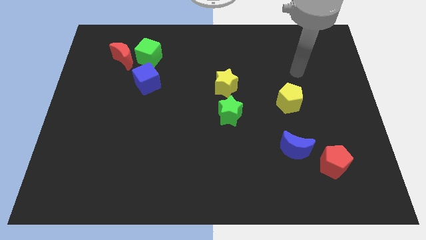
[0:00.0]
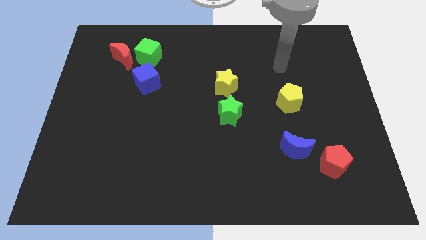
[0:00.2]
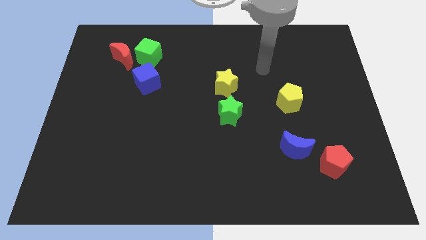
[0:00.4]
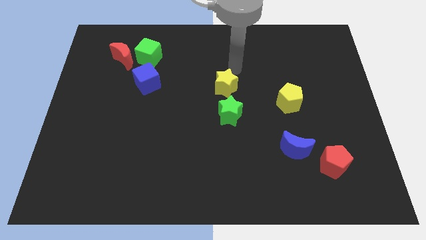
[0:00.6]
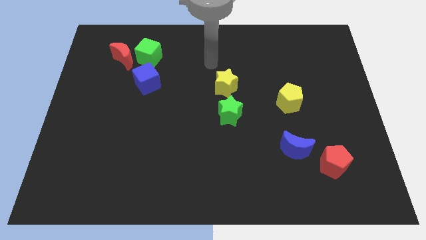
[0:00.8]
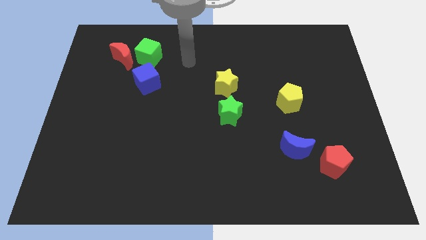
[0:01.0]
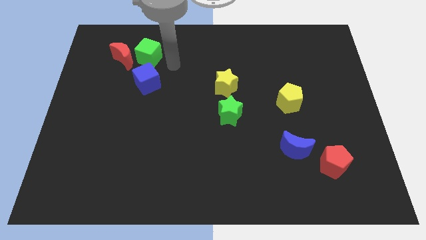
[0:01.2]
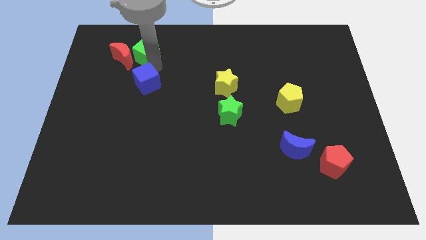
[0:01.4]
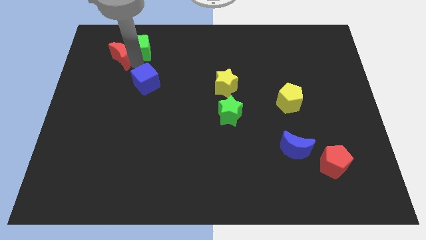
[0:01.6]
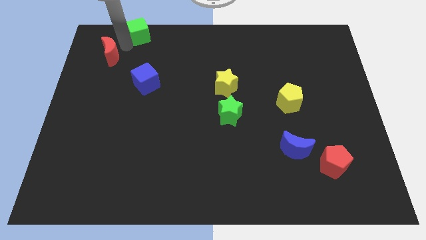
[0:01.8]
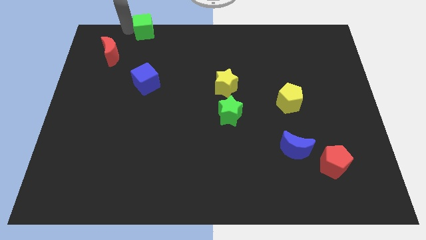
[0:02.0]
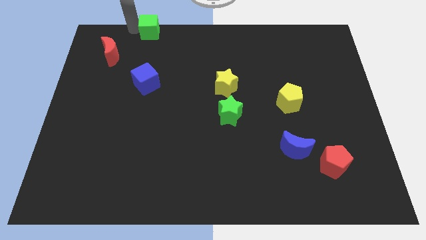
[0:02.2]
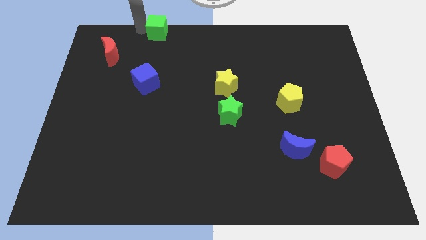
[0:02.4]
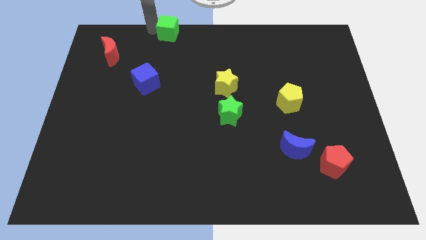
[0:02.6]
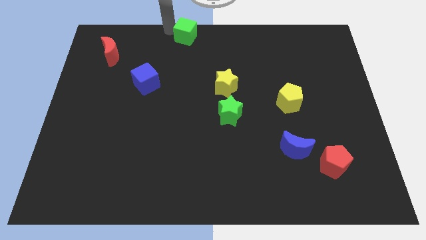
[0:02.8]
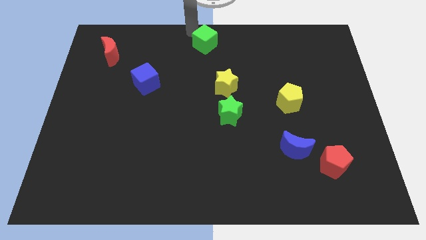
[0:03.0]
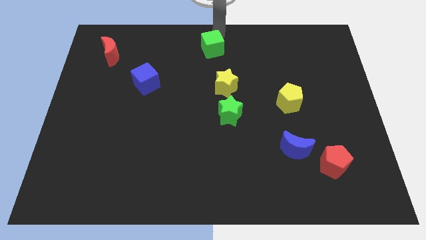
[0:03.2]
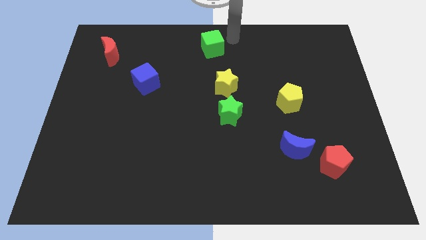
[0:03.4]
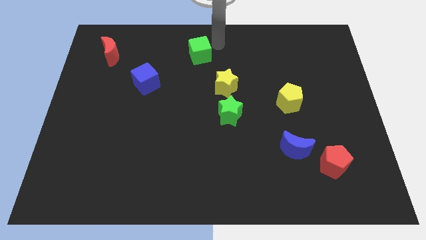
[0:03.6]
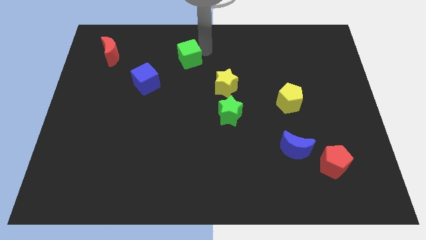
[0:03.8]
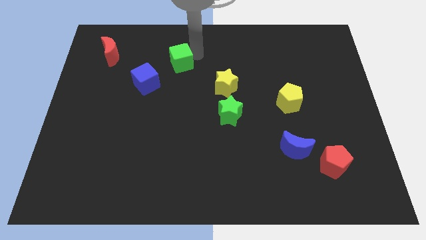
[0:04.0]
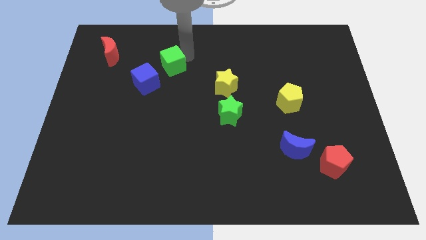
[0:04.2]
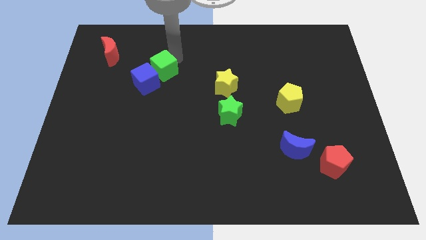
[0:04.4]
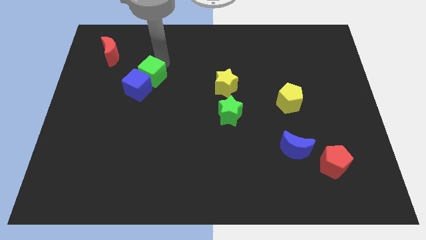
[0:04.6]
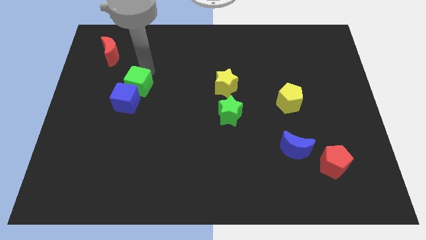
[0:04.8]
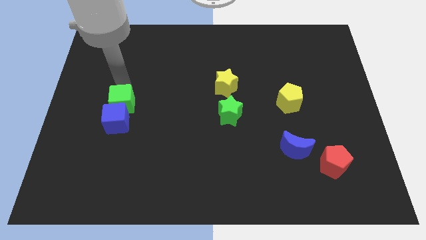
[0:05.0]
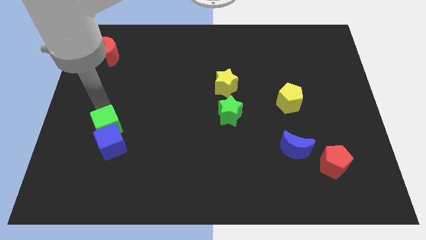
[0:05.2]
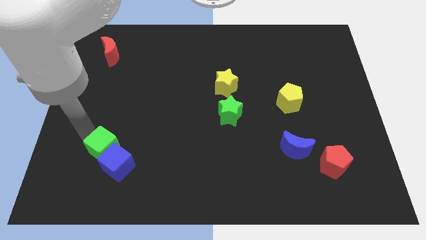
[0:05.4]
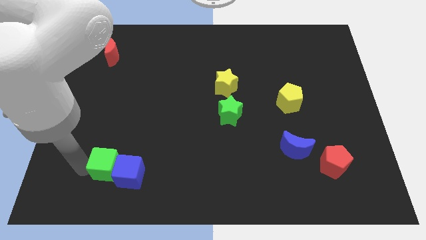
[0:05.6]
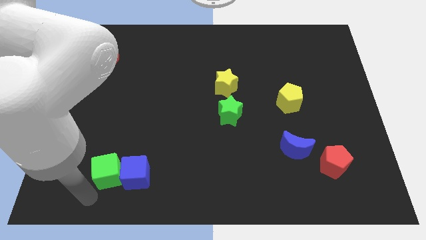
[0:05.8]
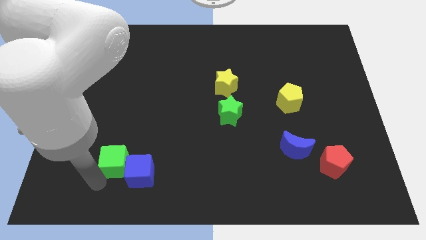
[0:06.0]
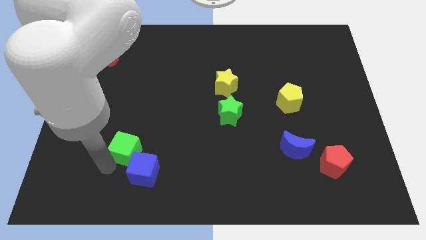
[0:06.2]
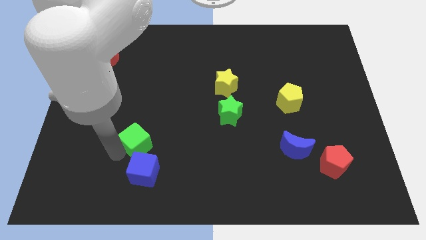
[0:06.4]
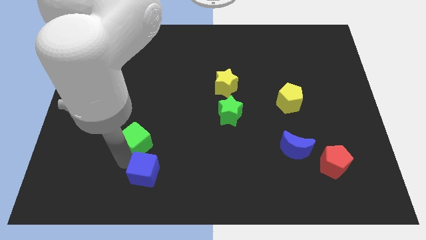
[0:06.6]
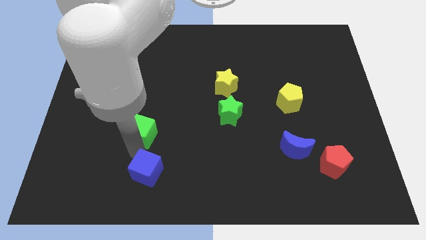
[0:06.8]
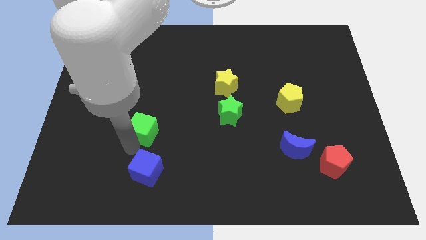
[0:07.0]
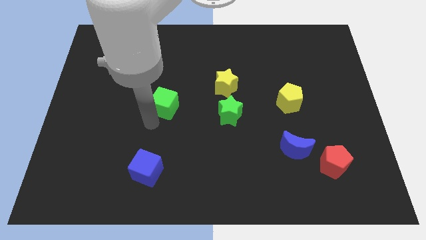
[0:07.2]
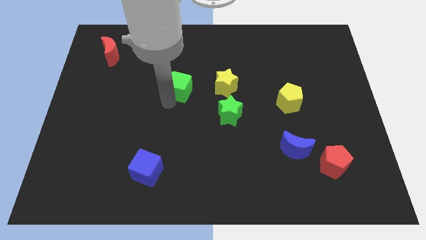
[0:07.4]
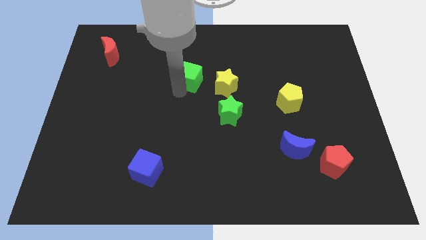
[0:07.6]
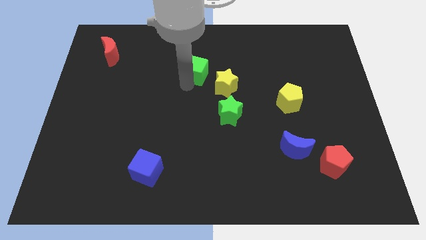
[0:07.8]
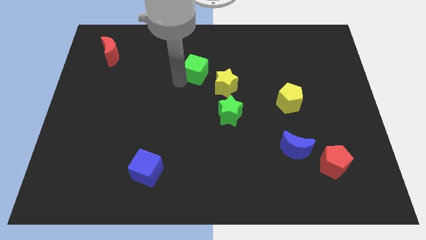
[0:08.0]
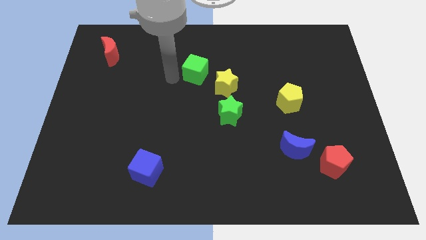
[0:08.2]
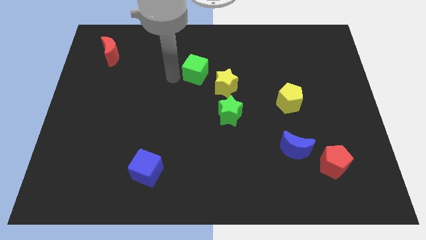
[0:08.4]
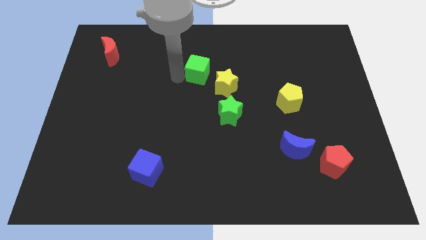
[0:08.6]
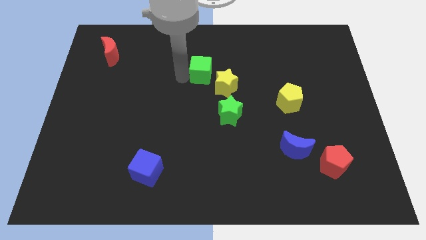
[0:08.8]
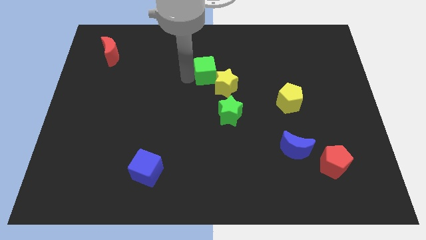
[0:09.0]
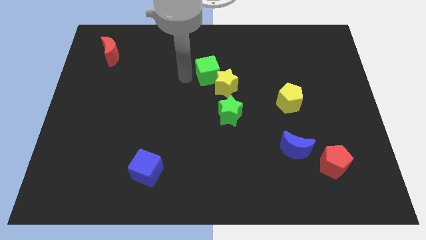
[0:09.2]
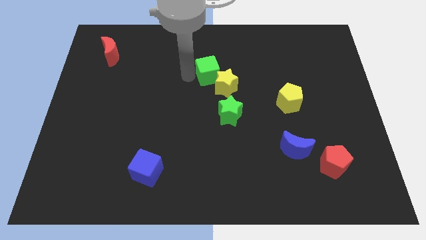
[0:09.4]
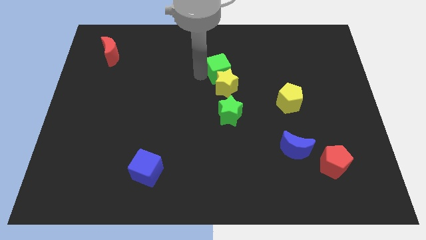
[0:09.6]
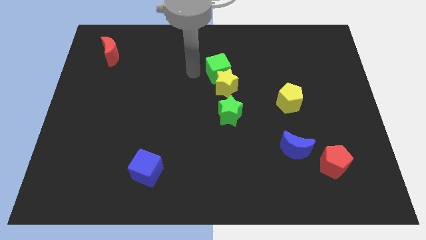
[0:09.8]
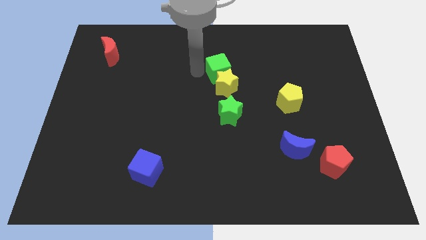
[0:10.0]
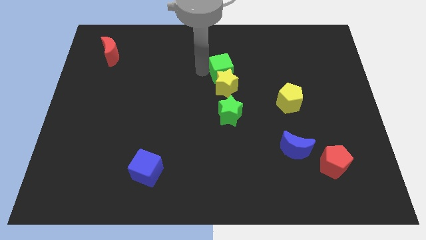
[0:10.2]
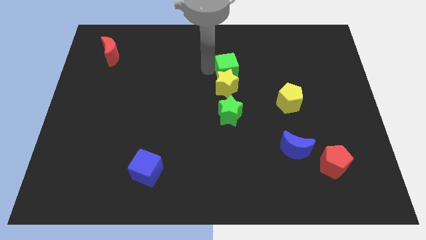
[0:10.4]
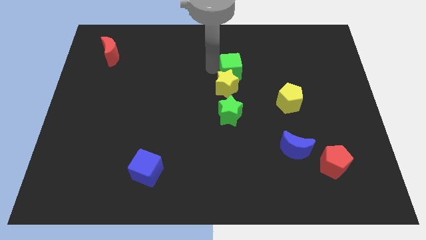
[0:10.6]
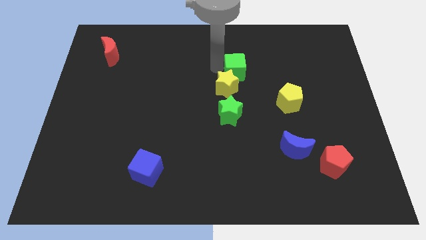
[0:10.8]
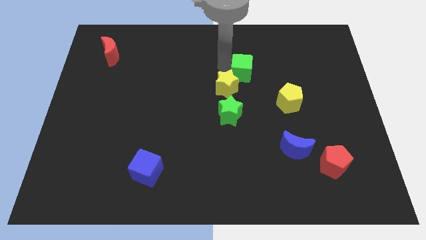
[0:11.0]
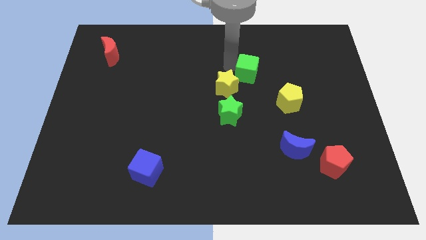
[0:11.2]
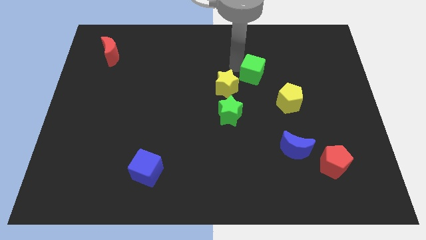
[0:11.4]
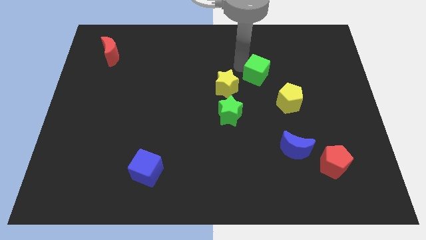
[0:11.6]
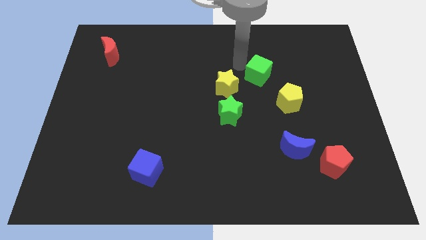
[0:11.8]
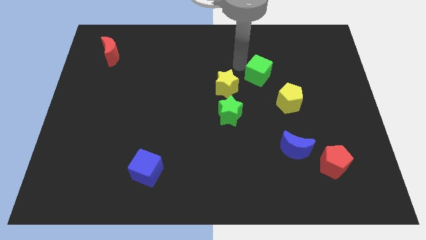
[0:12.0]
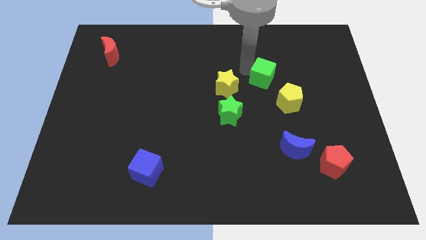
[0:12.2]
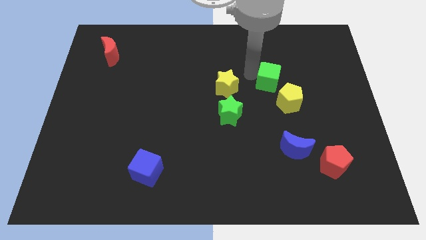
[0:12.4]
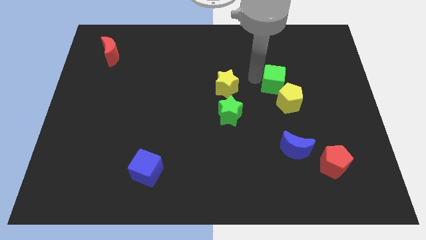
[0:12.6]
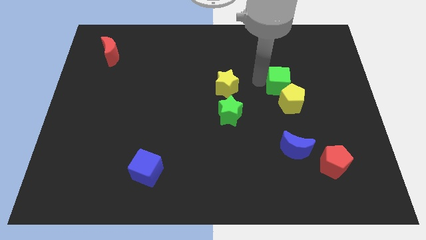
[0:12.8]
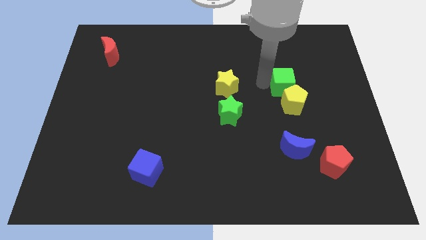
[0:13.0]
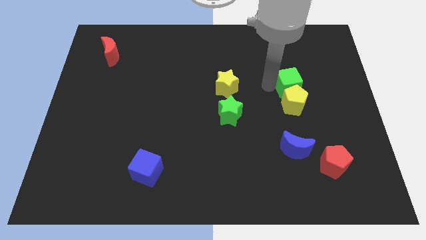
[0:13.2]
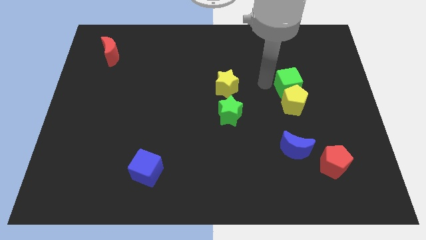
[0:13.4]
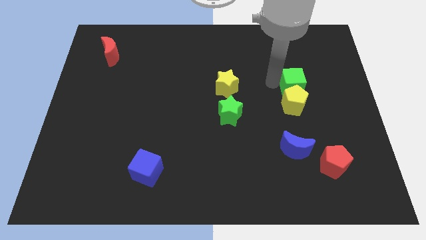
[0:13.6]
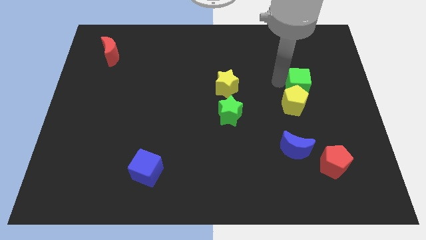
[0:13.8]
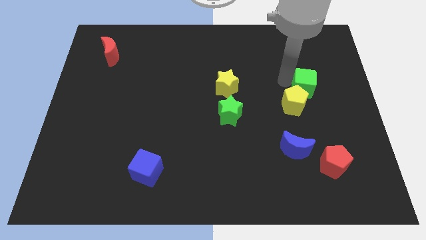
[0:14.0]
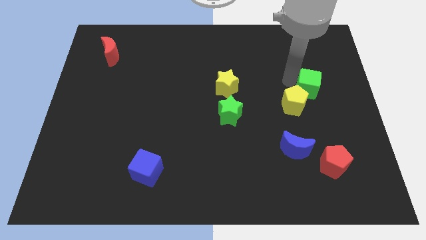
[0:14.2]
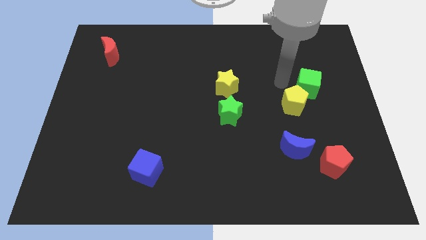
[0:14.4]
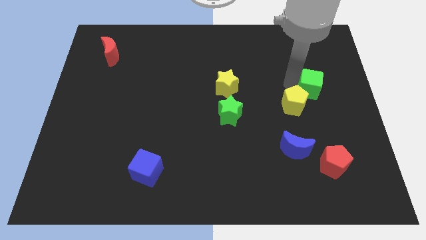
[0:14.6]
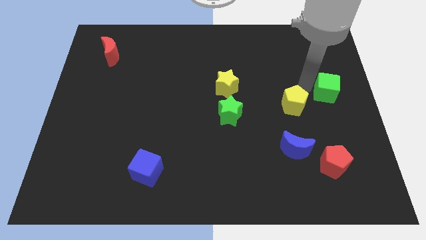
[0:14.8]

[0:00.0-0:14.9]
push the green cube to the right side
